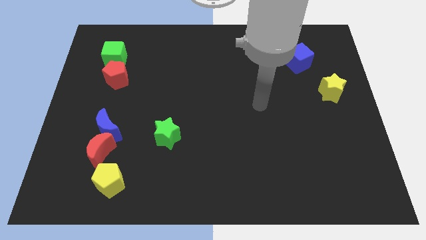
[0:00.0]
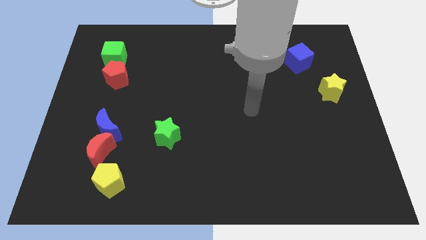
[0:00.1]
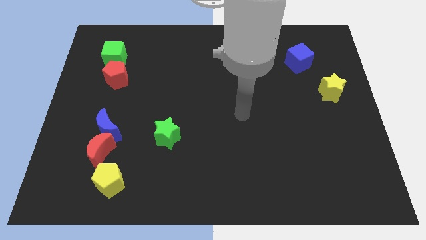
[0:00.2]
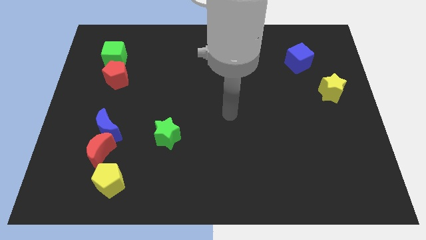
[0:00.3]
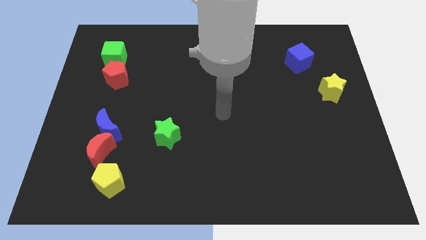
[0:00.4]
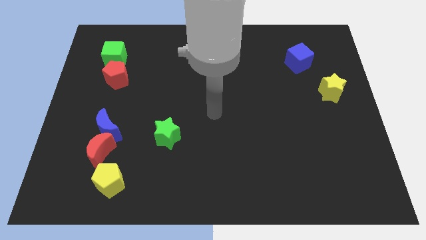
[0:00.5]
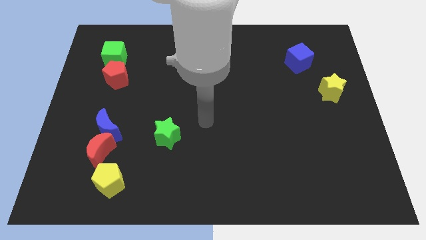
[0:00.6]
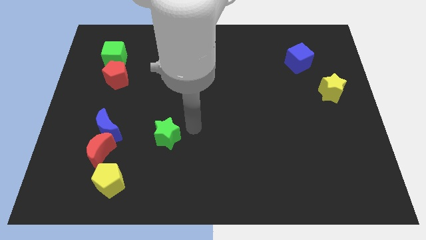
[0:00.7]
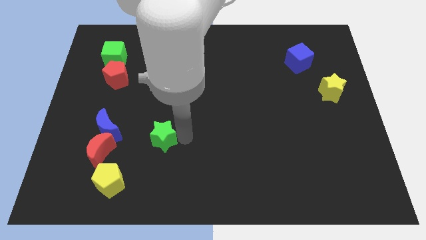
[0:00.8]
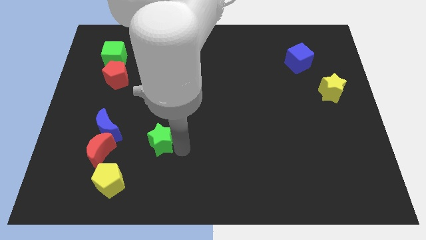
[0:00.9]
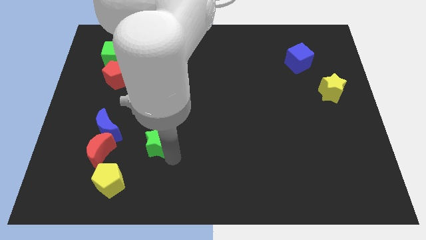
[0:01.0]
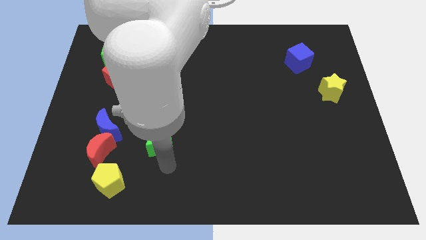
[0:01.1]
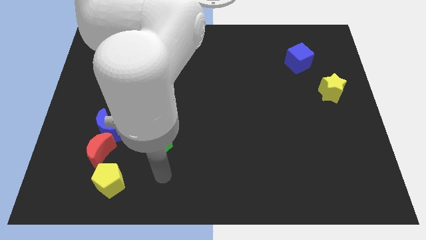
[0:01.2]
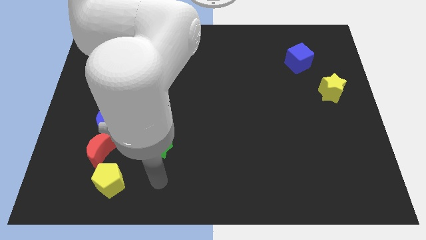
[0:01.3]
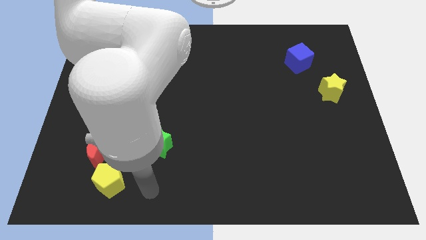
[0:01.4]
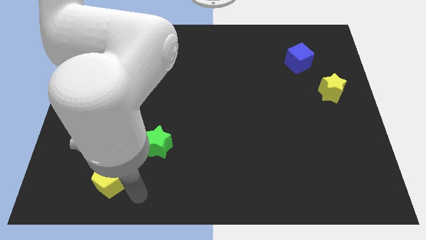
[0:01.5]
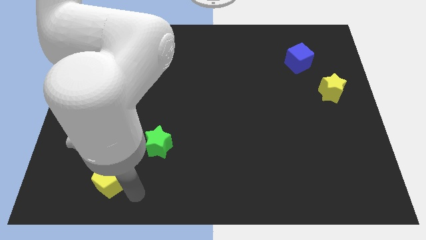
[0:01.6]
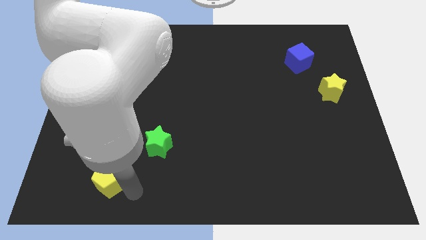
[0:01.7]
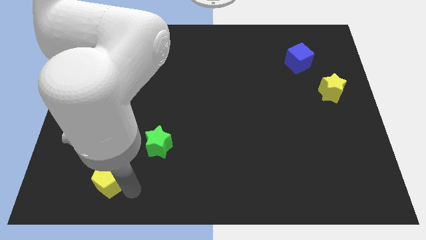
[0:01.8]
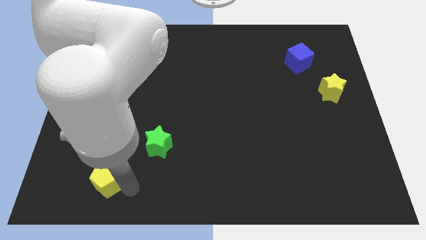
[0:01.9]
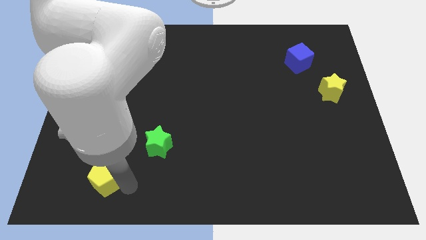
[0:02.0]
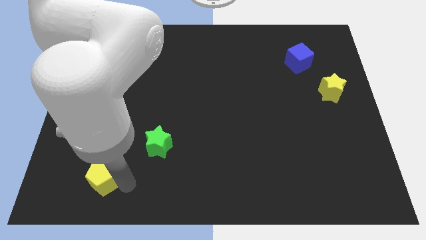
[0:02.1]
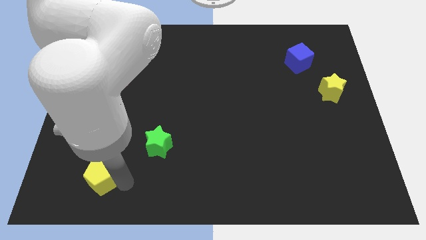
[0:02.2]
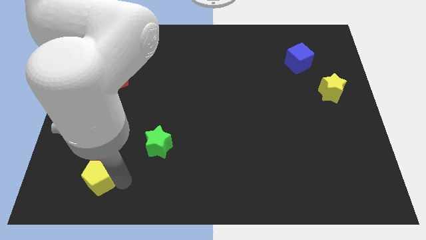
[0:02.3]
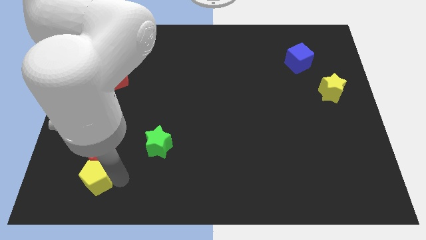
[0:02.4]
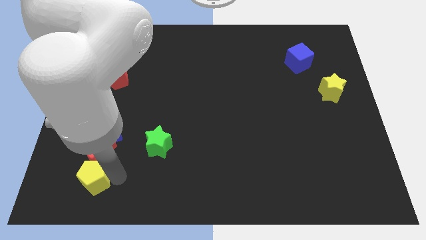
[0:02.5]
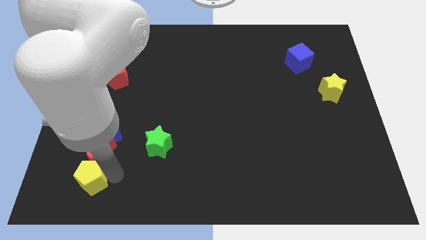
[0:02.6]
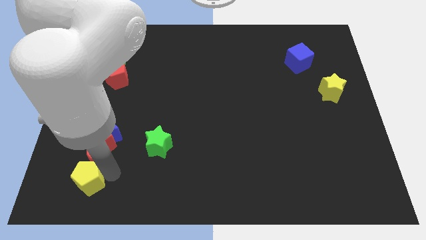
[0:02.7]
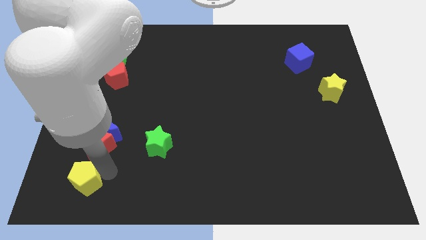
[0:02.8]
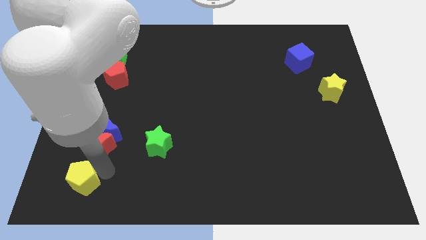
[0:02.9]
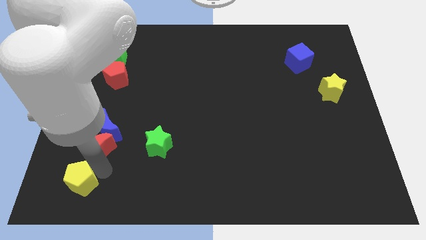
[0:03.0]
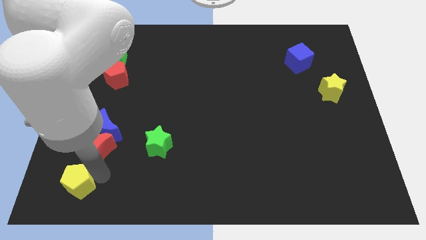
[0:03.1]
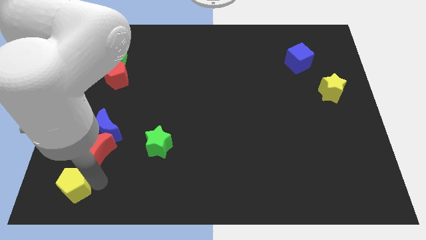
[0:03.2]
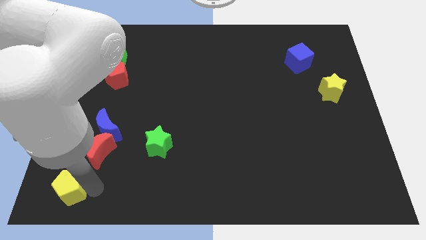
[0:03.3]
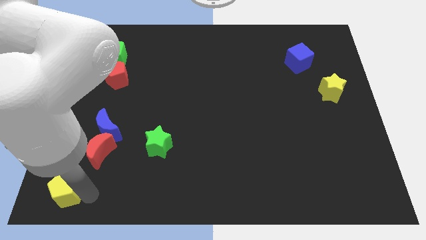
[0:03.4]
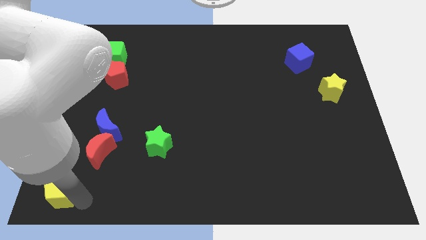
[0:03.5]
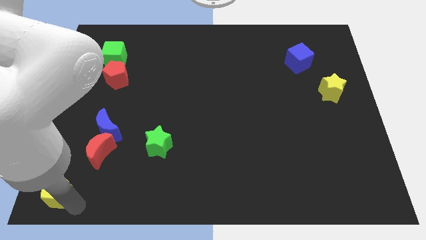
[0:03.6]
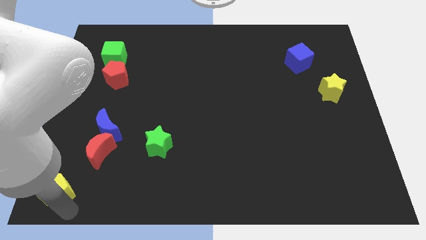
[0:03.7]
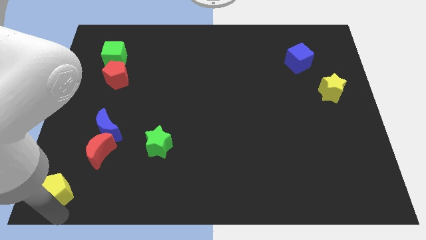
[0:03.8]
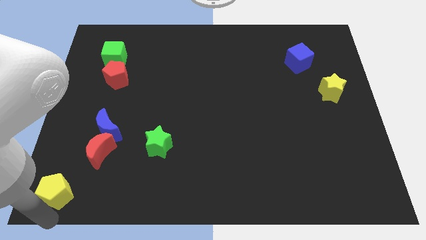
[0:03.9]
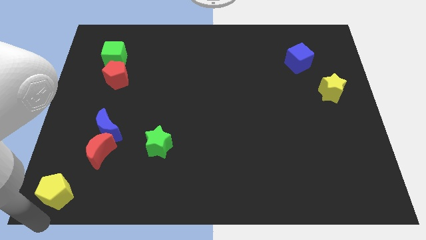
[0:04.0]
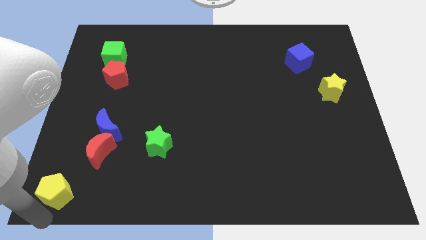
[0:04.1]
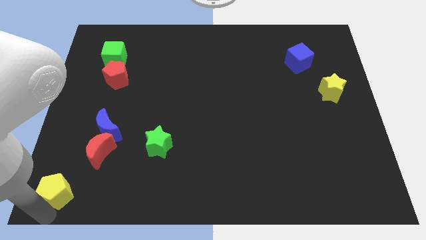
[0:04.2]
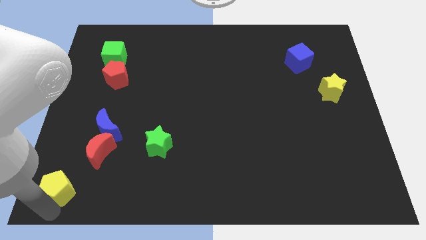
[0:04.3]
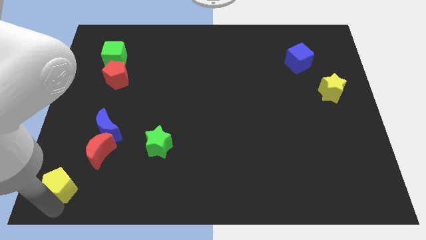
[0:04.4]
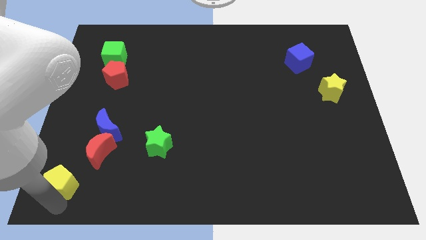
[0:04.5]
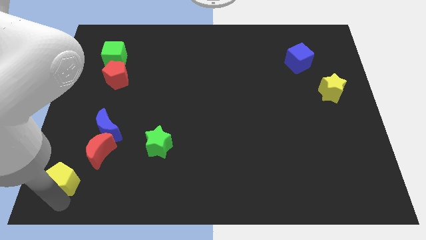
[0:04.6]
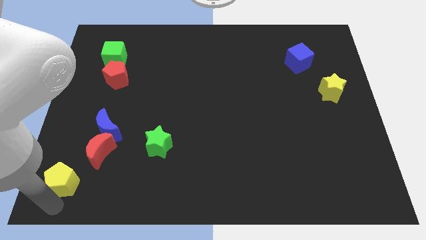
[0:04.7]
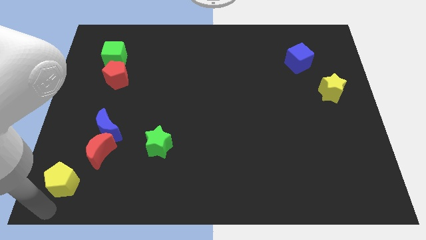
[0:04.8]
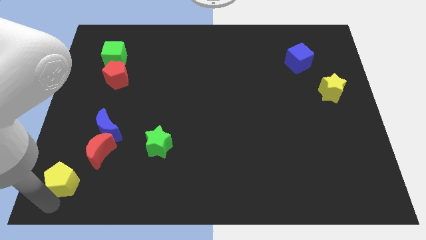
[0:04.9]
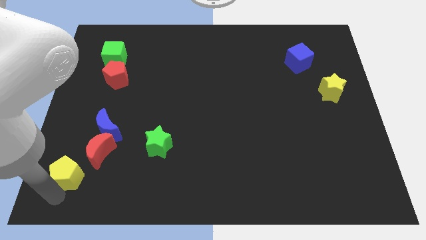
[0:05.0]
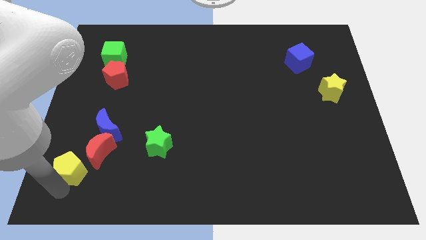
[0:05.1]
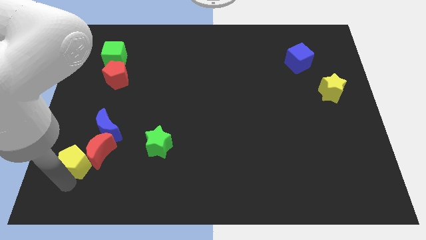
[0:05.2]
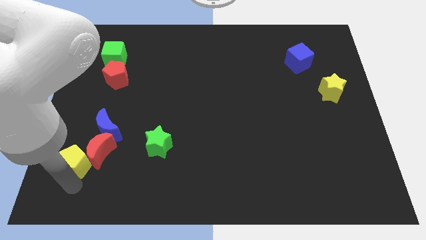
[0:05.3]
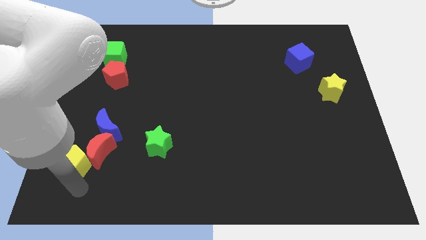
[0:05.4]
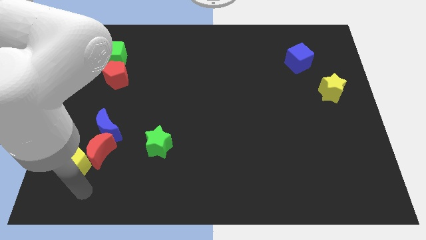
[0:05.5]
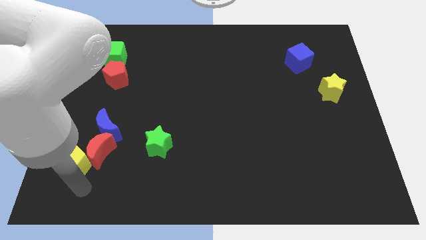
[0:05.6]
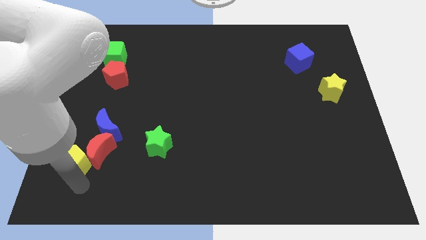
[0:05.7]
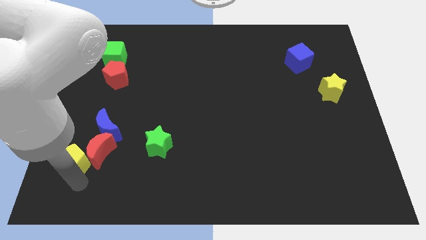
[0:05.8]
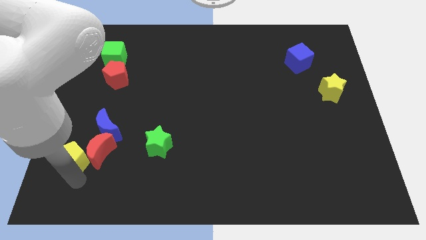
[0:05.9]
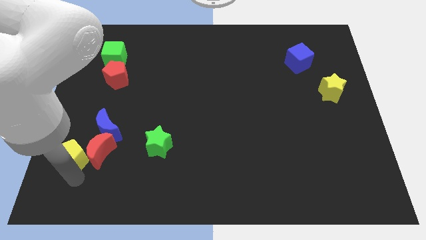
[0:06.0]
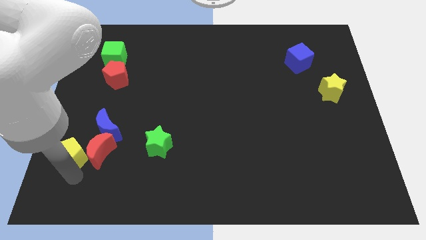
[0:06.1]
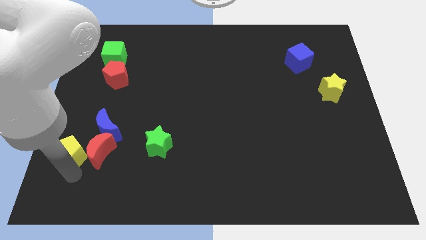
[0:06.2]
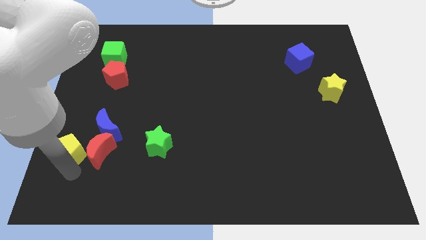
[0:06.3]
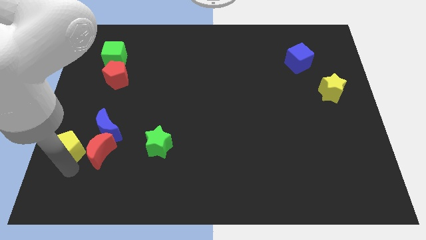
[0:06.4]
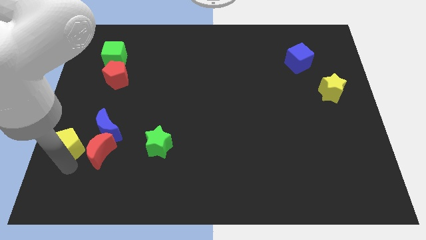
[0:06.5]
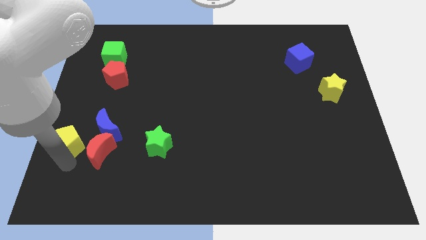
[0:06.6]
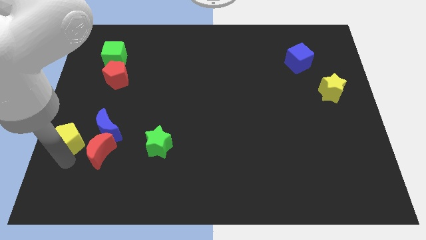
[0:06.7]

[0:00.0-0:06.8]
move the yellow pentagon to the left side of the board

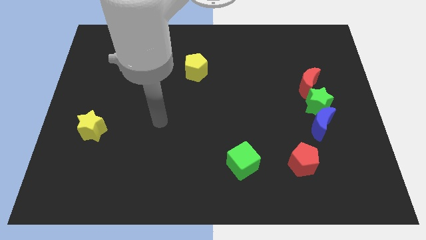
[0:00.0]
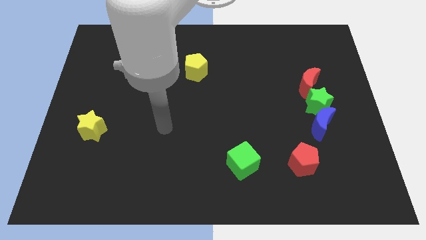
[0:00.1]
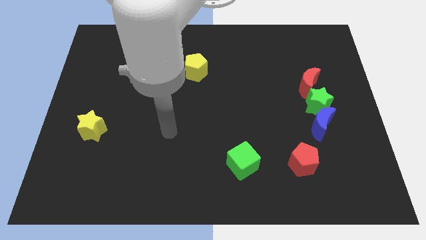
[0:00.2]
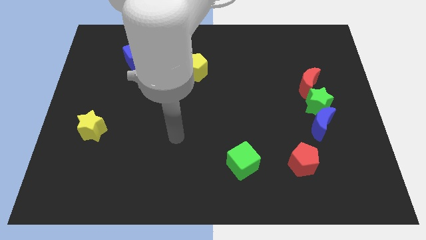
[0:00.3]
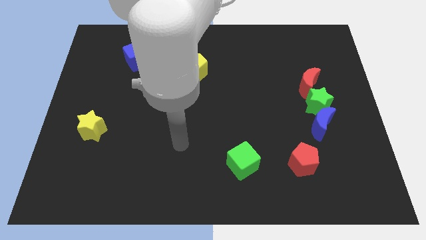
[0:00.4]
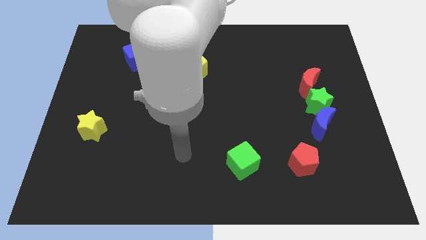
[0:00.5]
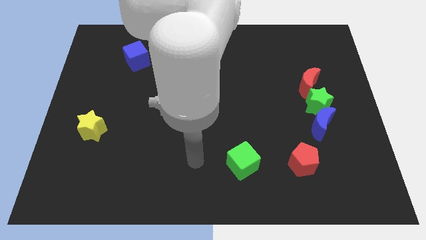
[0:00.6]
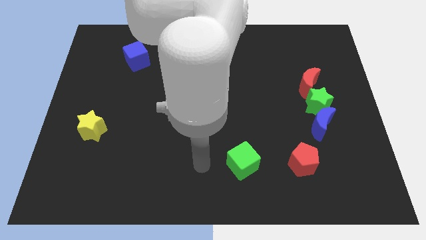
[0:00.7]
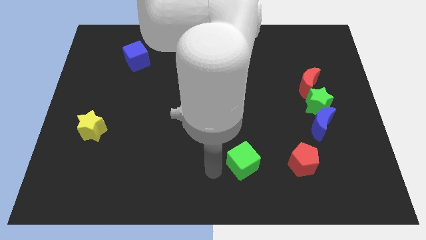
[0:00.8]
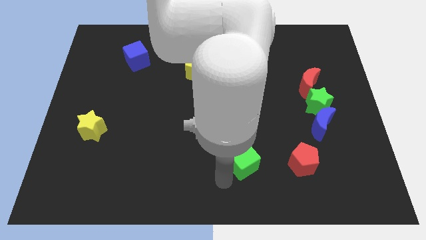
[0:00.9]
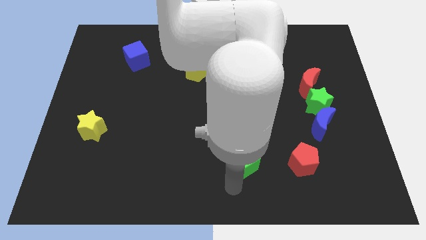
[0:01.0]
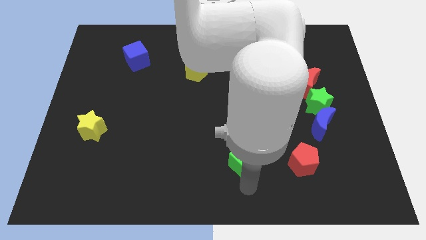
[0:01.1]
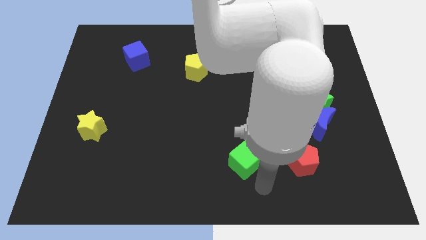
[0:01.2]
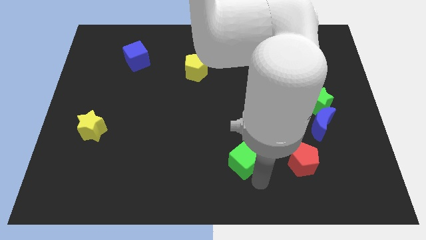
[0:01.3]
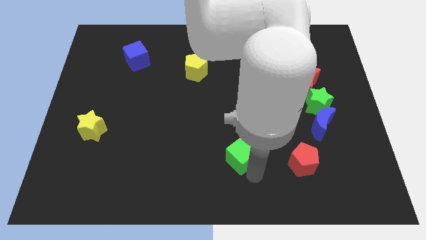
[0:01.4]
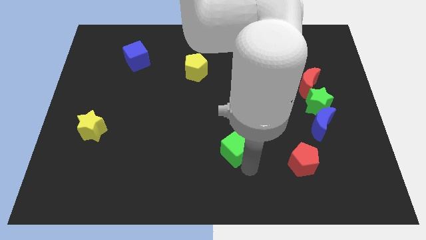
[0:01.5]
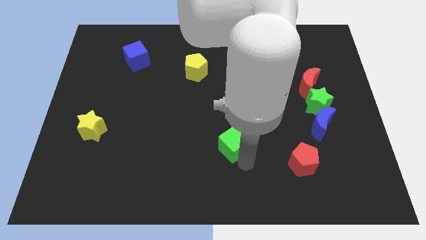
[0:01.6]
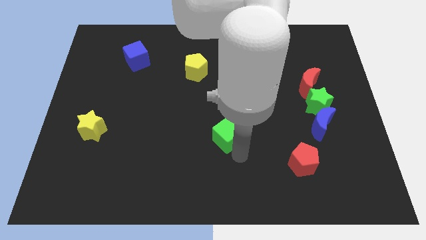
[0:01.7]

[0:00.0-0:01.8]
push the green cube to the middle of the board
